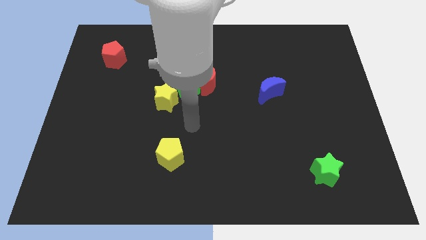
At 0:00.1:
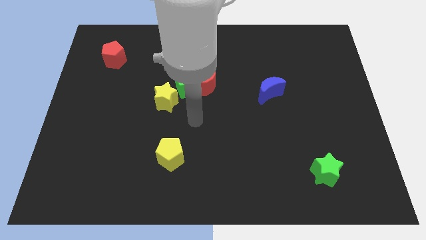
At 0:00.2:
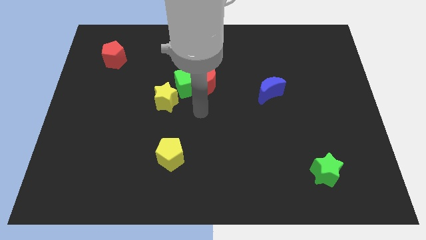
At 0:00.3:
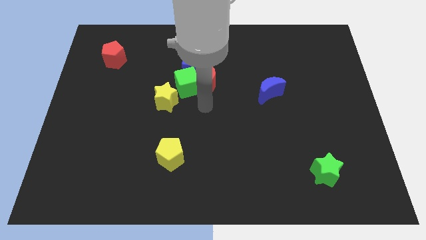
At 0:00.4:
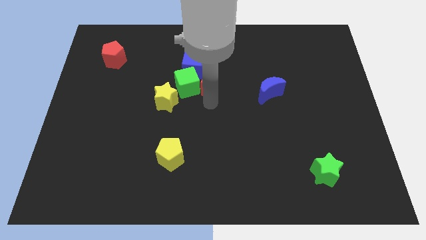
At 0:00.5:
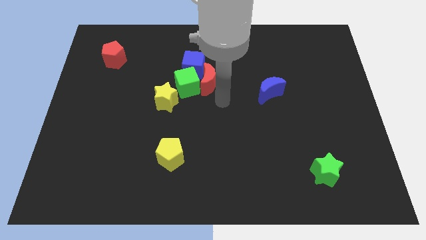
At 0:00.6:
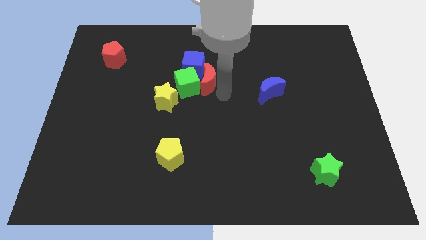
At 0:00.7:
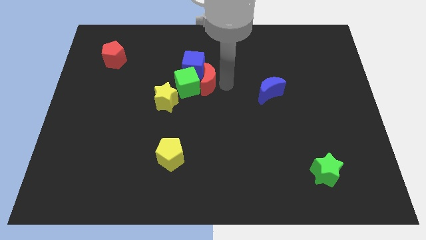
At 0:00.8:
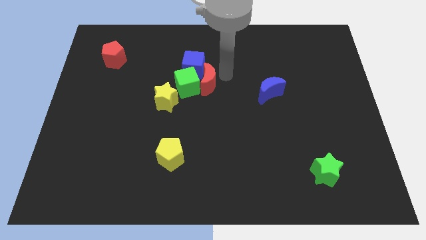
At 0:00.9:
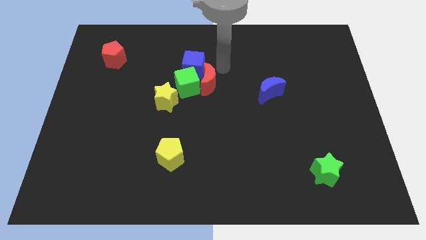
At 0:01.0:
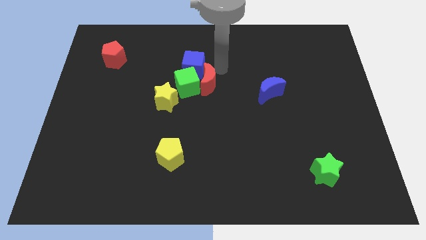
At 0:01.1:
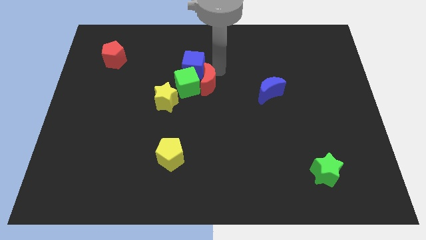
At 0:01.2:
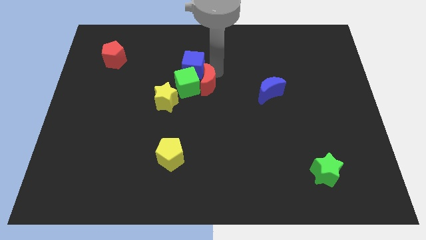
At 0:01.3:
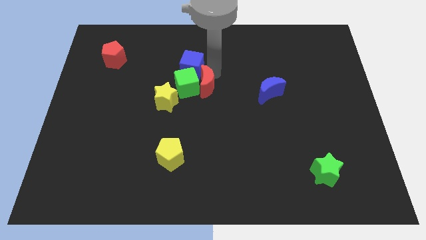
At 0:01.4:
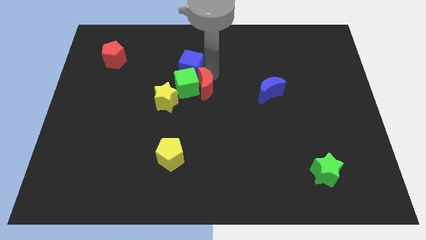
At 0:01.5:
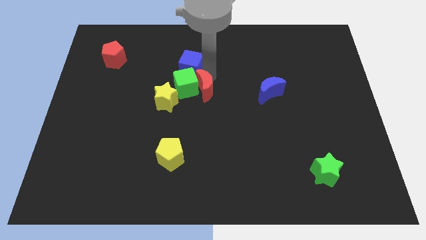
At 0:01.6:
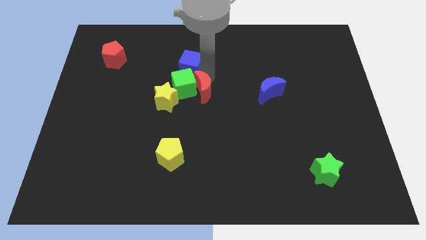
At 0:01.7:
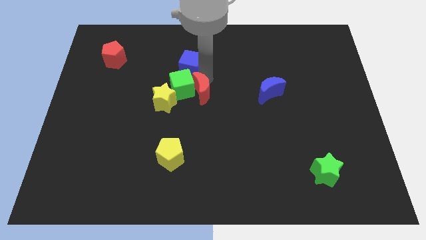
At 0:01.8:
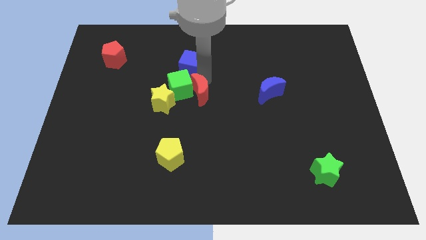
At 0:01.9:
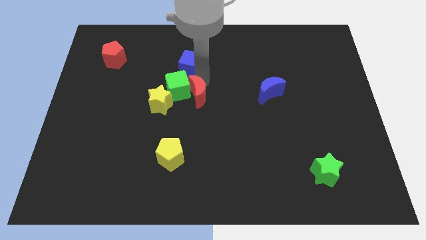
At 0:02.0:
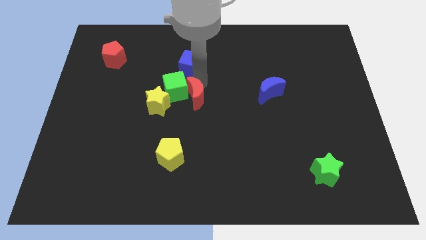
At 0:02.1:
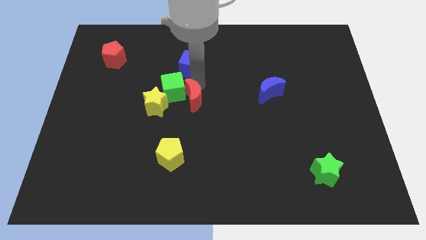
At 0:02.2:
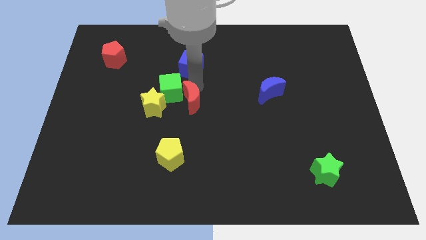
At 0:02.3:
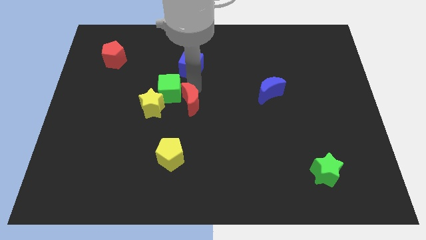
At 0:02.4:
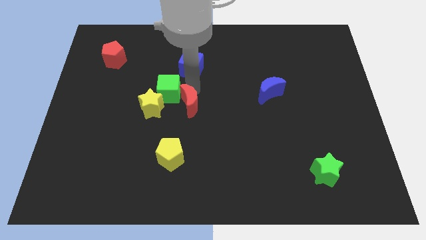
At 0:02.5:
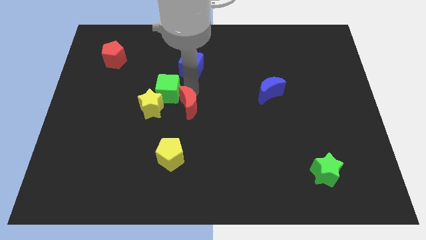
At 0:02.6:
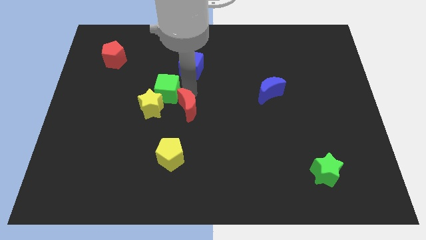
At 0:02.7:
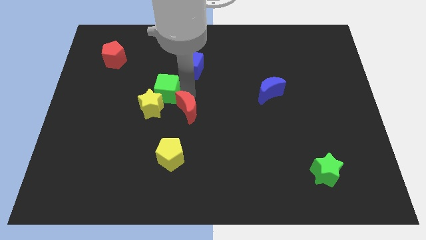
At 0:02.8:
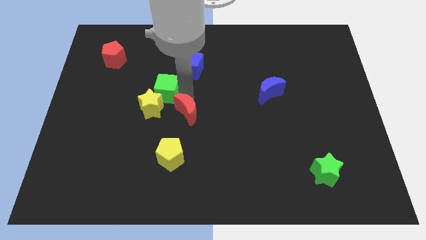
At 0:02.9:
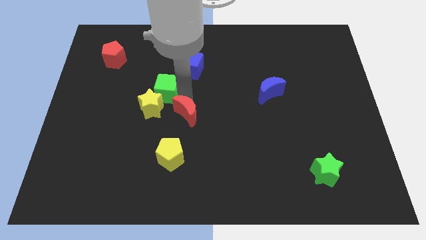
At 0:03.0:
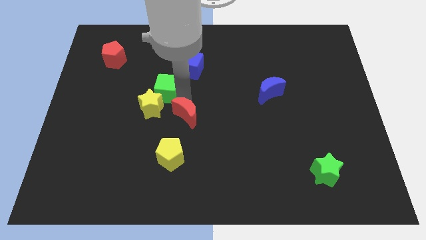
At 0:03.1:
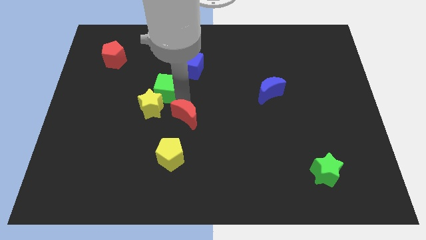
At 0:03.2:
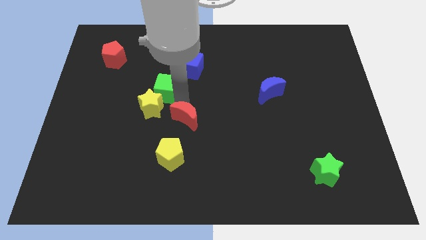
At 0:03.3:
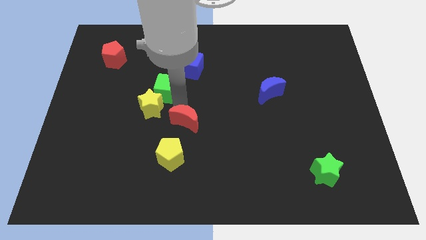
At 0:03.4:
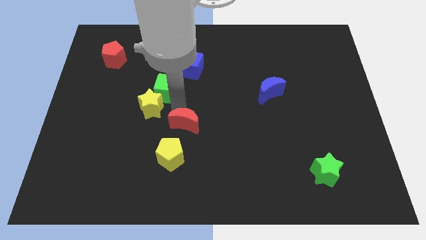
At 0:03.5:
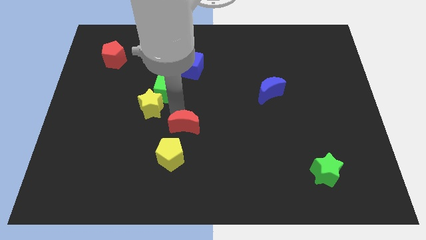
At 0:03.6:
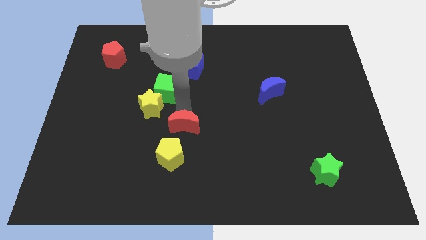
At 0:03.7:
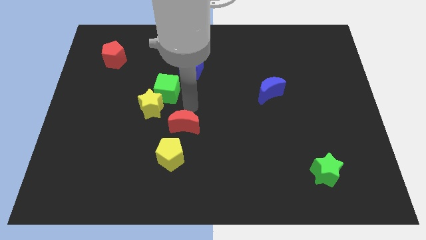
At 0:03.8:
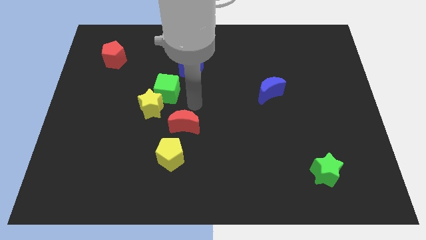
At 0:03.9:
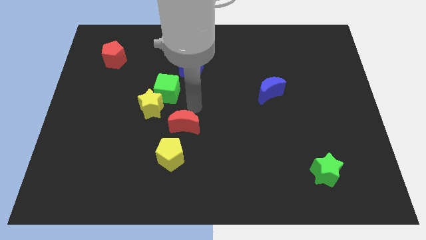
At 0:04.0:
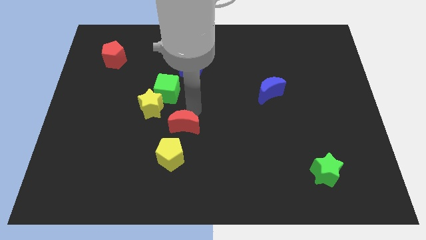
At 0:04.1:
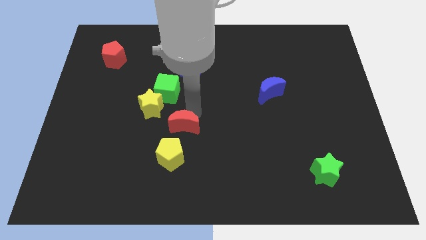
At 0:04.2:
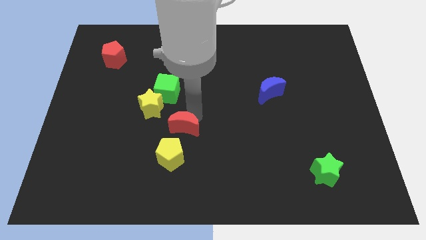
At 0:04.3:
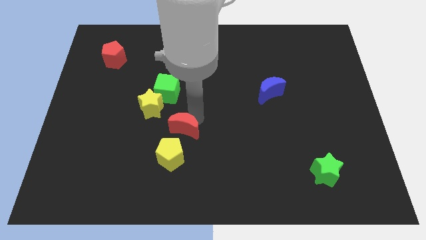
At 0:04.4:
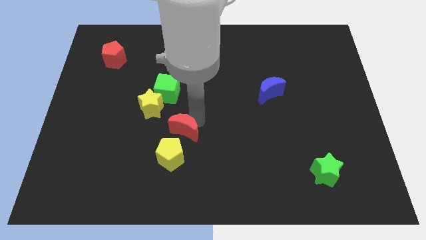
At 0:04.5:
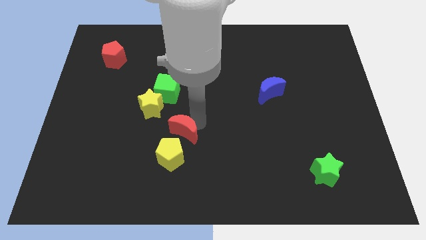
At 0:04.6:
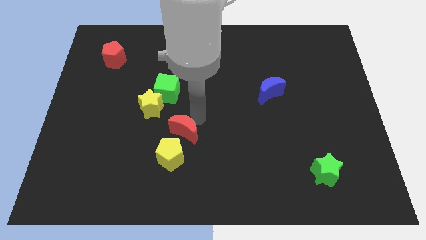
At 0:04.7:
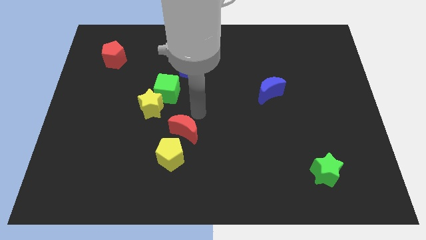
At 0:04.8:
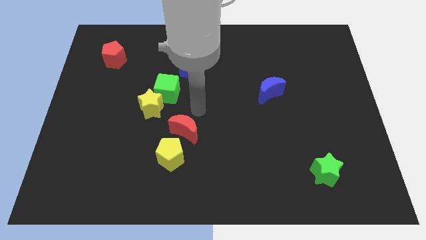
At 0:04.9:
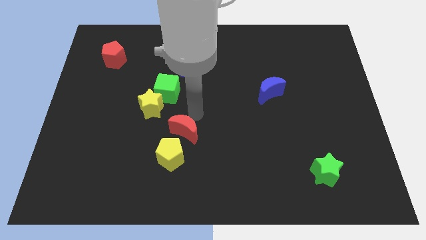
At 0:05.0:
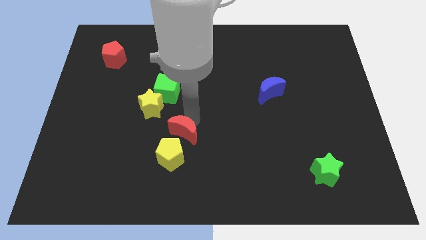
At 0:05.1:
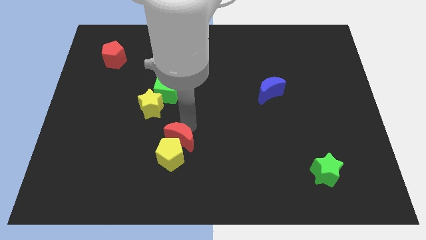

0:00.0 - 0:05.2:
slide the red moon next to the yellow pentagon

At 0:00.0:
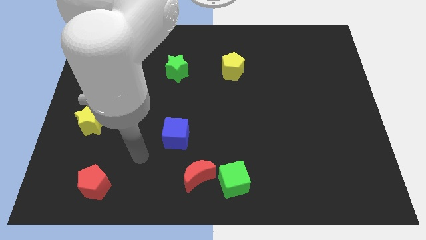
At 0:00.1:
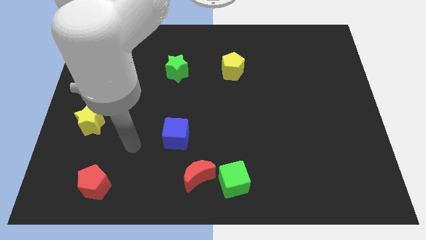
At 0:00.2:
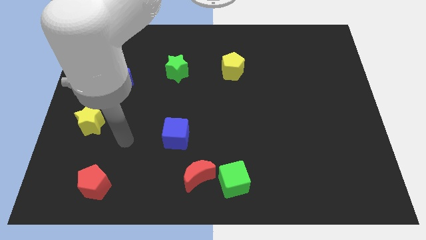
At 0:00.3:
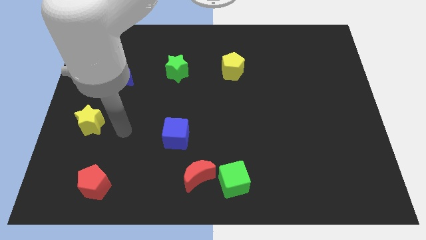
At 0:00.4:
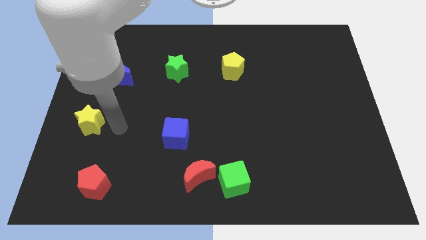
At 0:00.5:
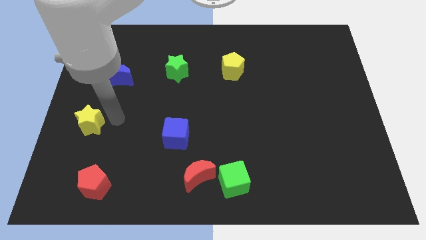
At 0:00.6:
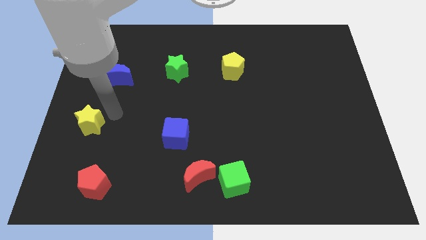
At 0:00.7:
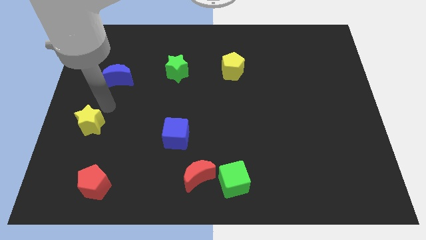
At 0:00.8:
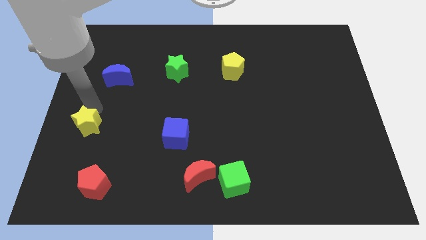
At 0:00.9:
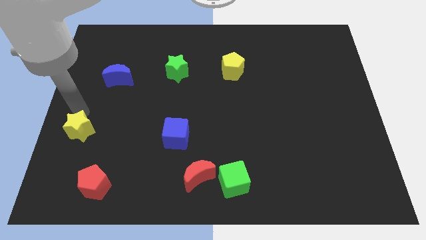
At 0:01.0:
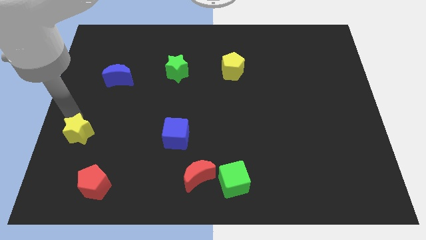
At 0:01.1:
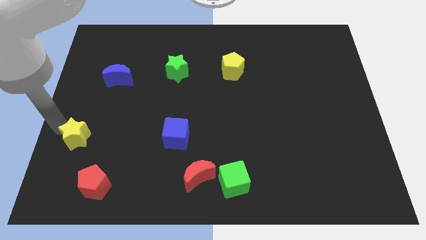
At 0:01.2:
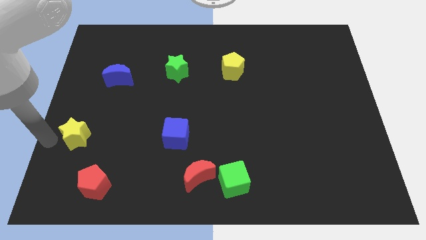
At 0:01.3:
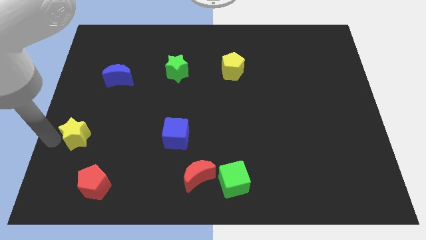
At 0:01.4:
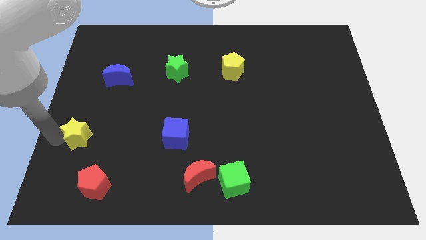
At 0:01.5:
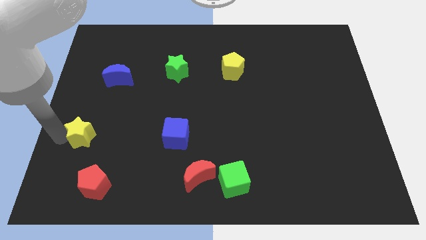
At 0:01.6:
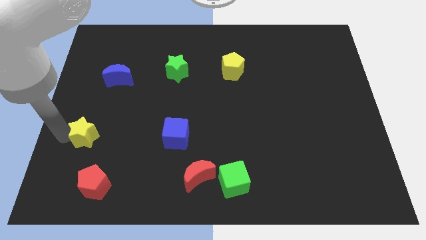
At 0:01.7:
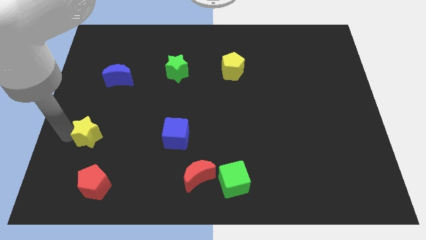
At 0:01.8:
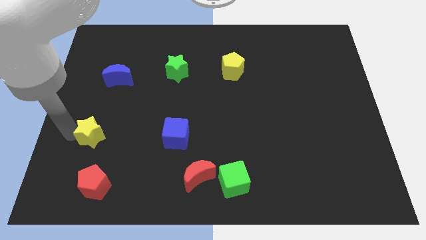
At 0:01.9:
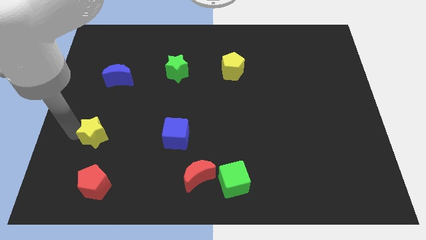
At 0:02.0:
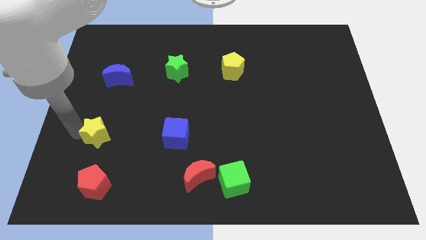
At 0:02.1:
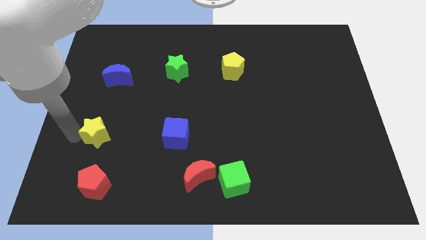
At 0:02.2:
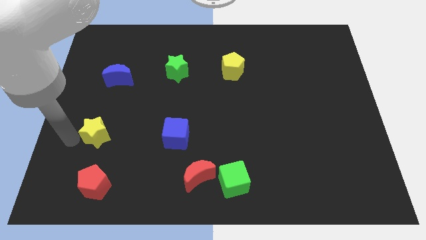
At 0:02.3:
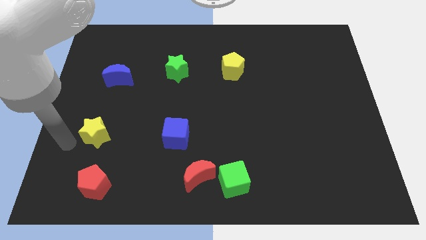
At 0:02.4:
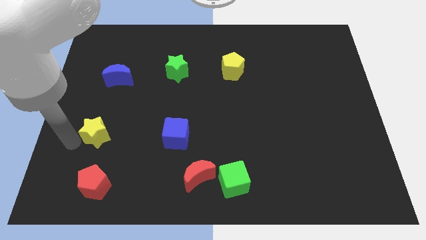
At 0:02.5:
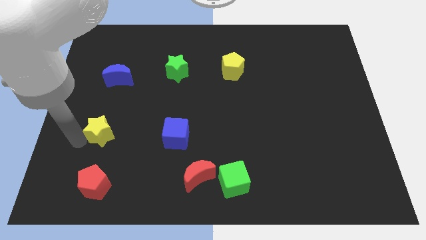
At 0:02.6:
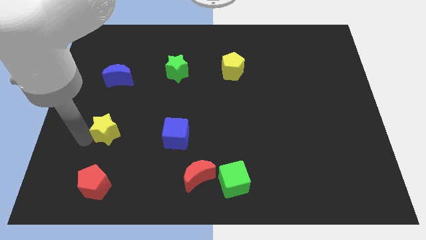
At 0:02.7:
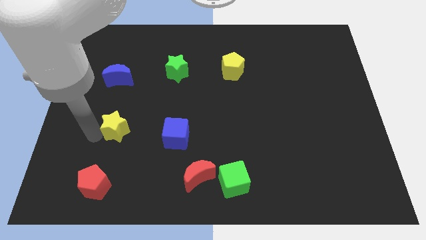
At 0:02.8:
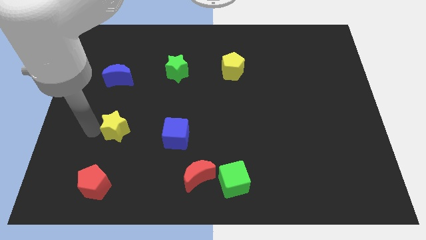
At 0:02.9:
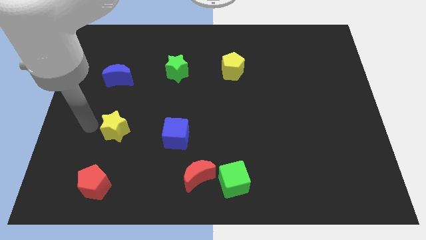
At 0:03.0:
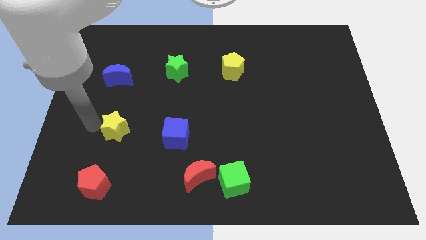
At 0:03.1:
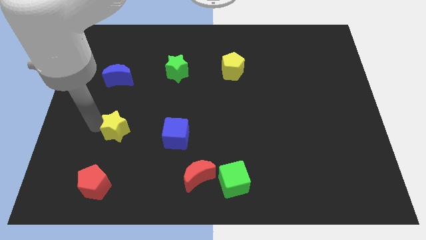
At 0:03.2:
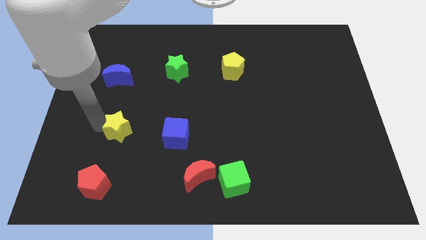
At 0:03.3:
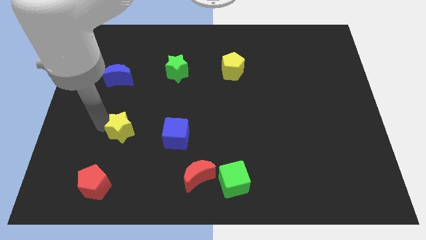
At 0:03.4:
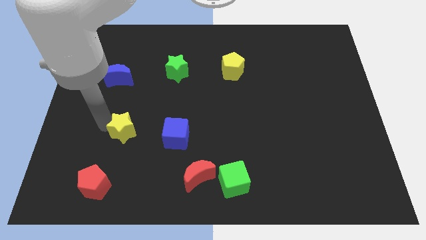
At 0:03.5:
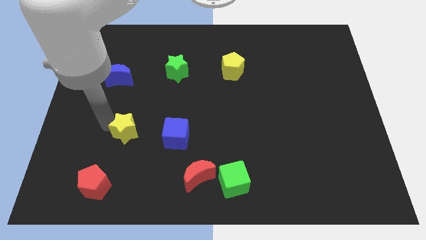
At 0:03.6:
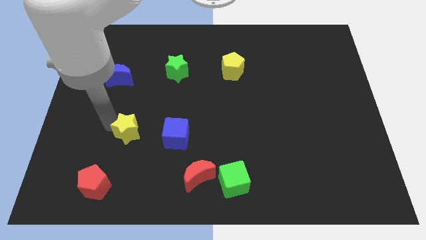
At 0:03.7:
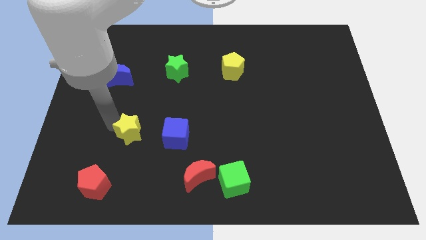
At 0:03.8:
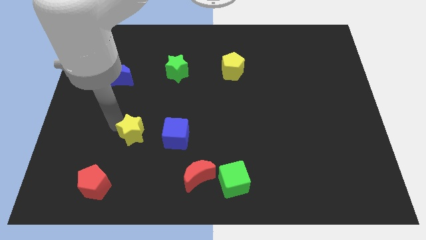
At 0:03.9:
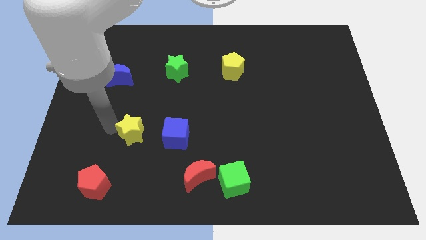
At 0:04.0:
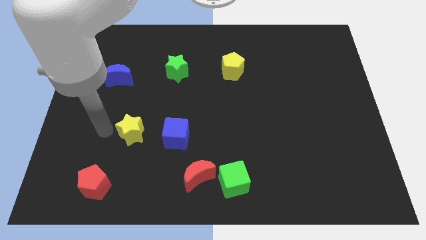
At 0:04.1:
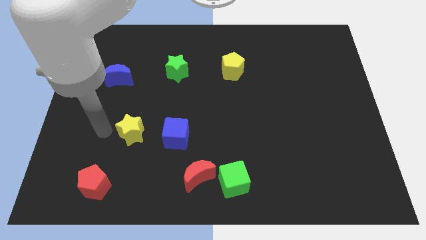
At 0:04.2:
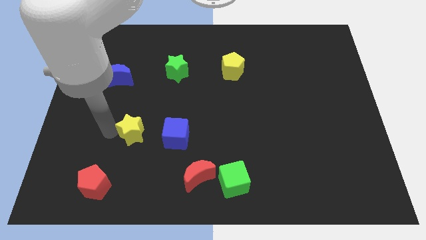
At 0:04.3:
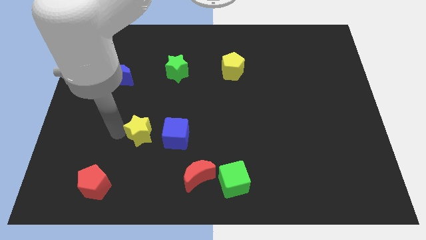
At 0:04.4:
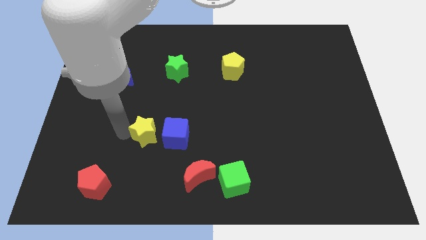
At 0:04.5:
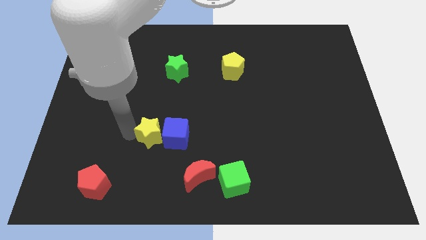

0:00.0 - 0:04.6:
push the yellow star towards the blue cube
